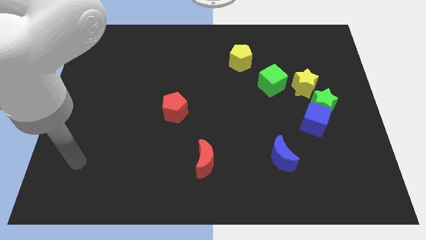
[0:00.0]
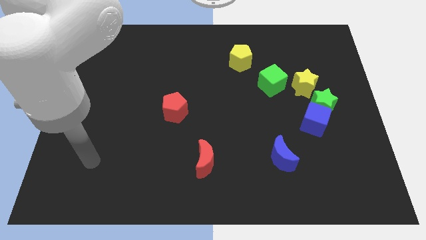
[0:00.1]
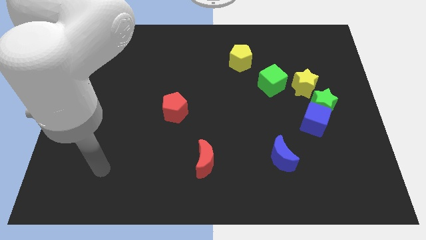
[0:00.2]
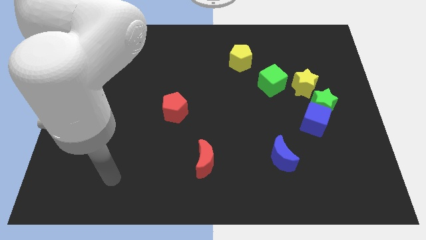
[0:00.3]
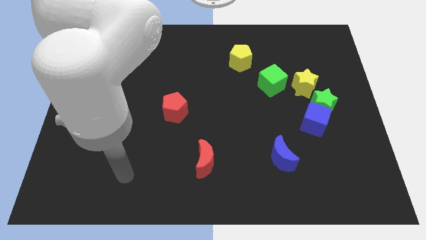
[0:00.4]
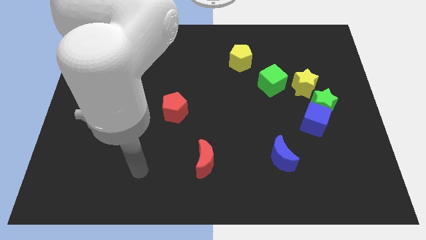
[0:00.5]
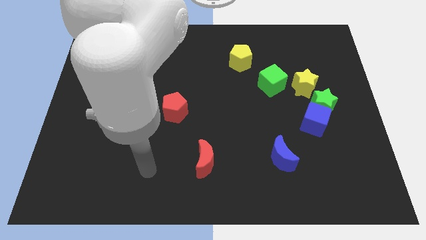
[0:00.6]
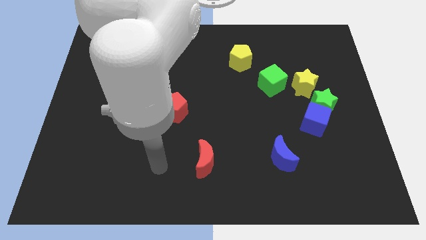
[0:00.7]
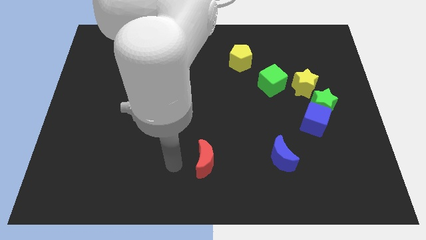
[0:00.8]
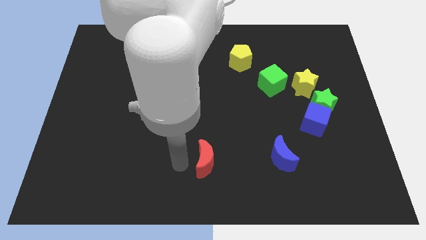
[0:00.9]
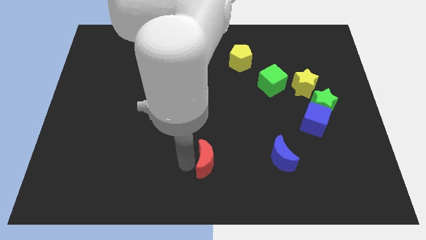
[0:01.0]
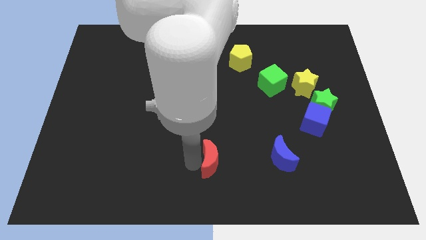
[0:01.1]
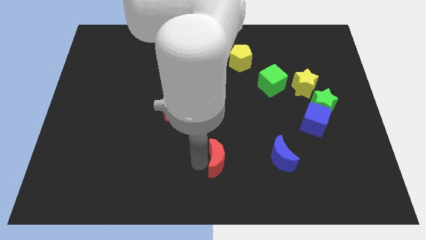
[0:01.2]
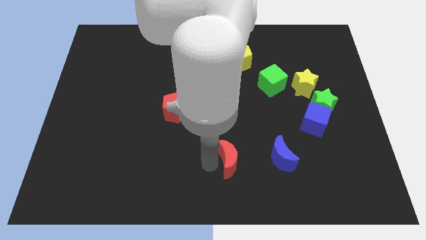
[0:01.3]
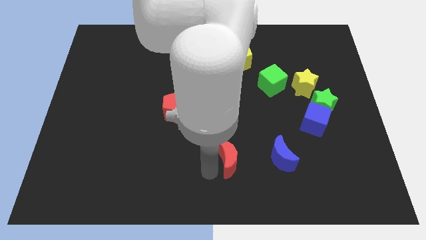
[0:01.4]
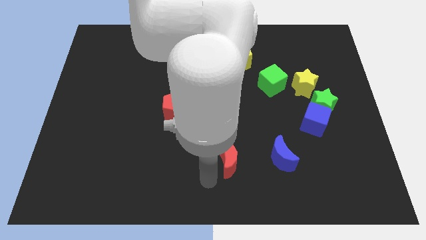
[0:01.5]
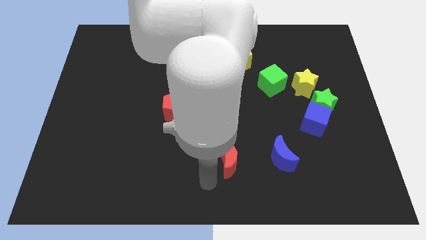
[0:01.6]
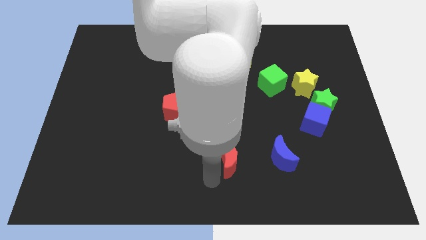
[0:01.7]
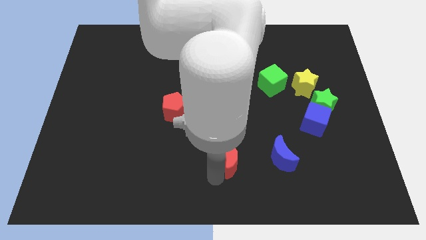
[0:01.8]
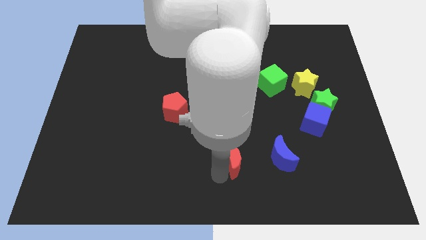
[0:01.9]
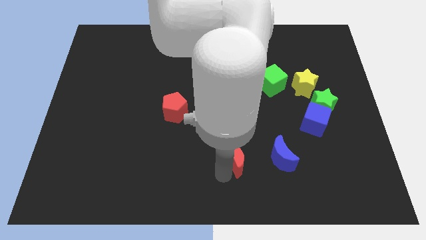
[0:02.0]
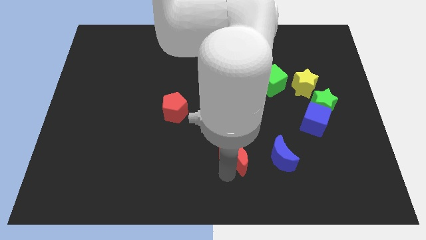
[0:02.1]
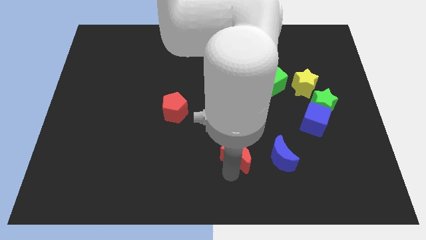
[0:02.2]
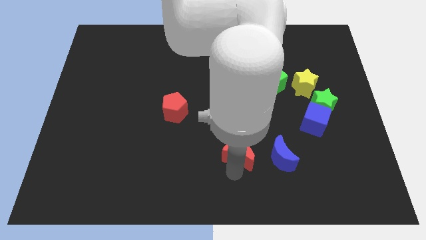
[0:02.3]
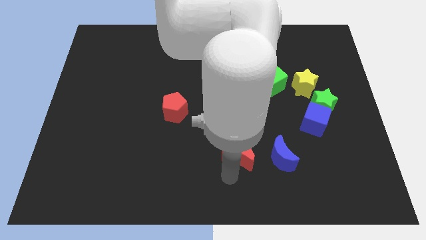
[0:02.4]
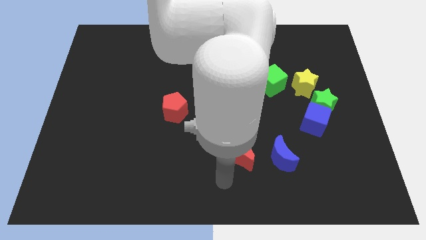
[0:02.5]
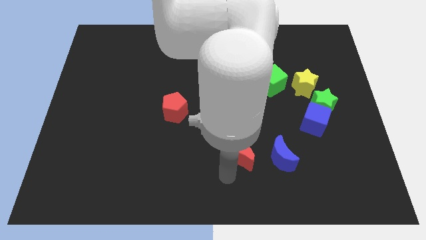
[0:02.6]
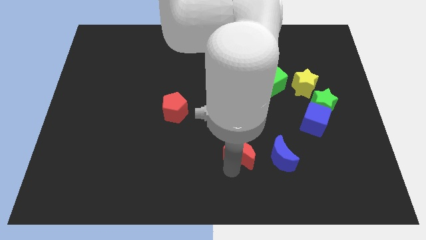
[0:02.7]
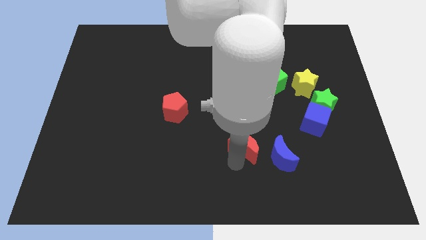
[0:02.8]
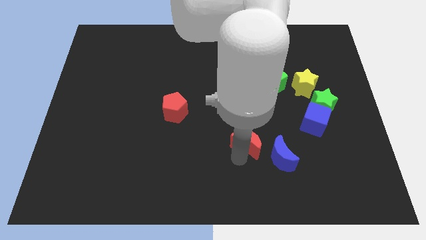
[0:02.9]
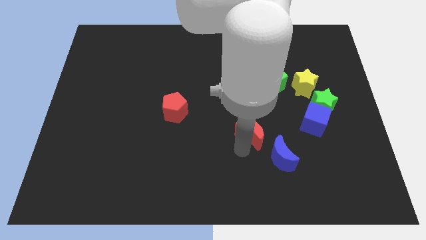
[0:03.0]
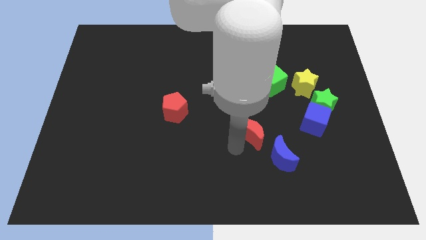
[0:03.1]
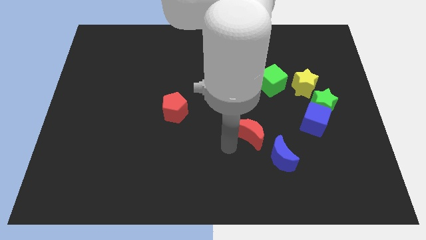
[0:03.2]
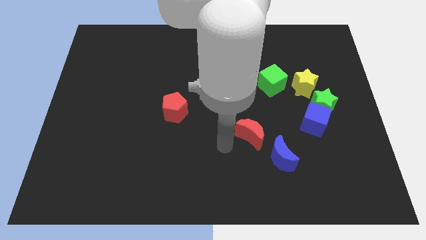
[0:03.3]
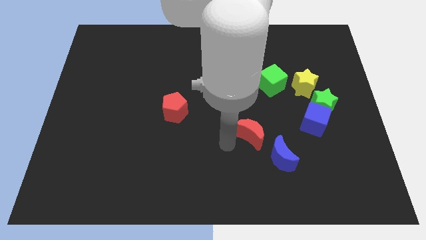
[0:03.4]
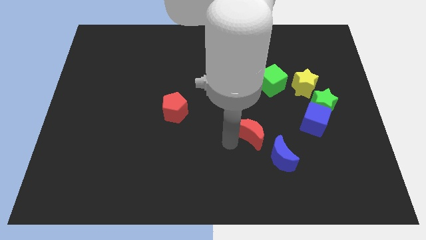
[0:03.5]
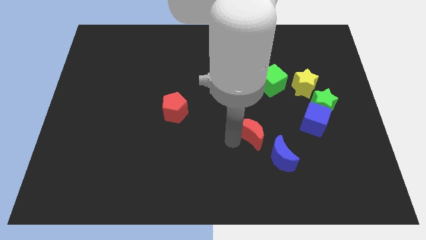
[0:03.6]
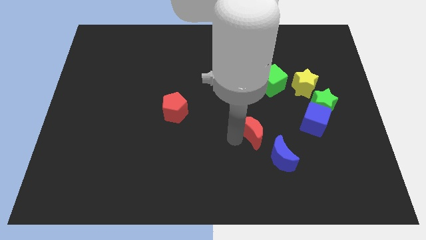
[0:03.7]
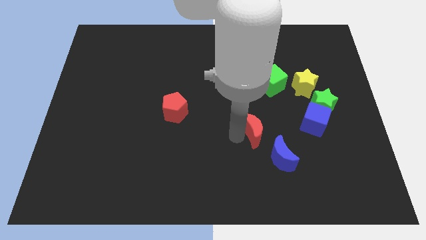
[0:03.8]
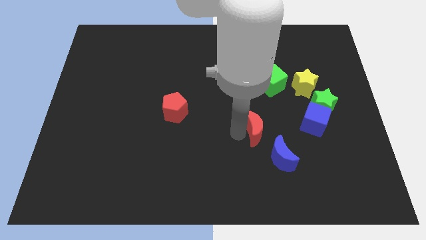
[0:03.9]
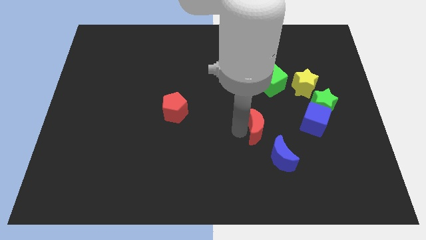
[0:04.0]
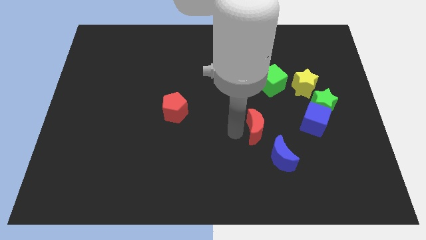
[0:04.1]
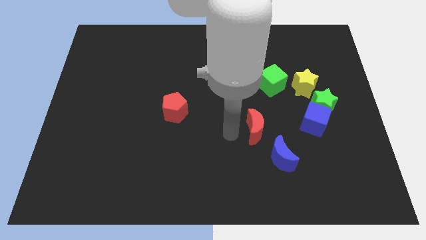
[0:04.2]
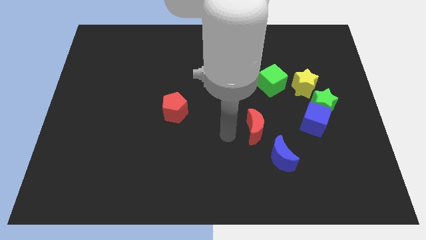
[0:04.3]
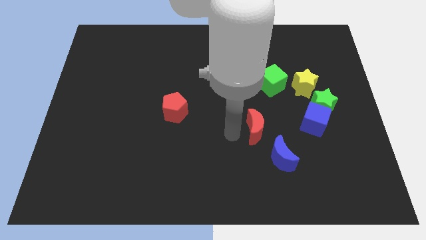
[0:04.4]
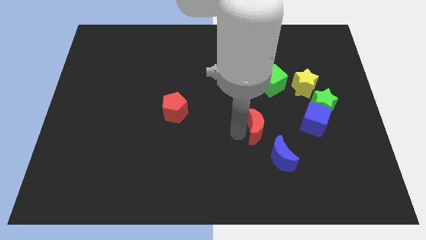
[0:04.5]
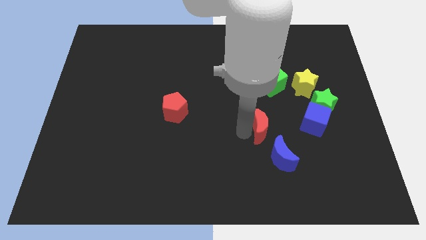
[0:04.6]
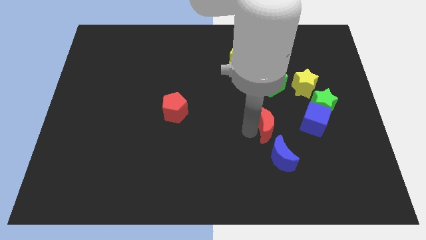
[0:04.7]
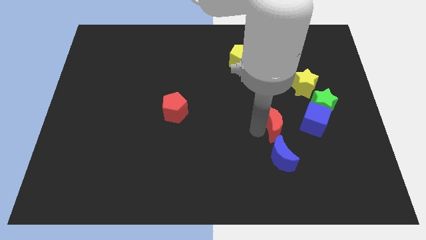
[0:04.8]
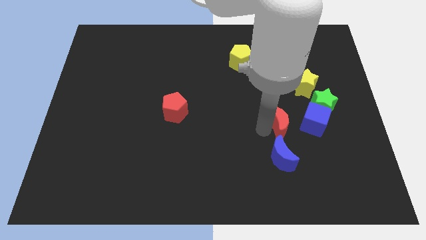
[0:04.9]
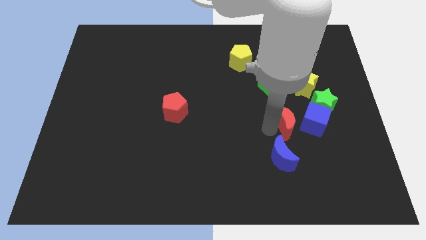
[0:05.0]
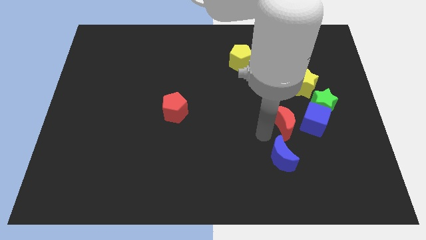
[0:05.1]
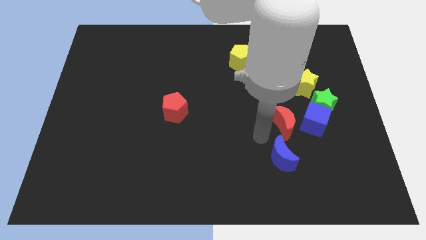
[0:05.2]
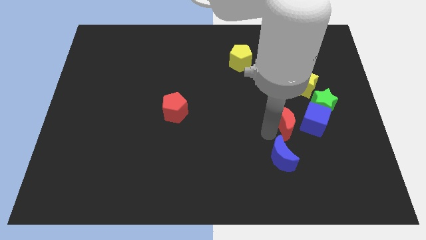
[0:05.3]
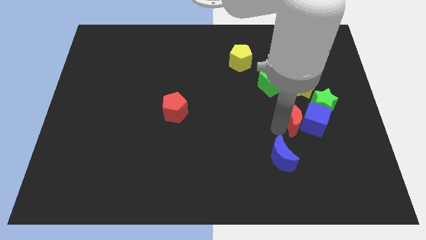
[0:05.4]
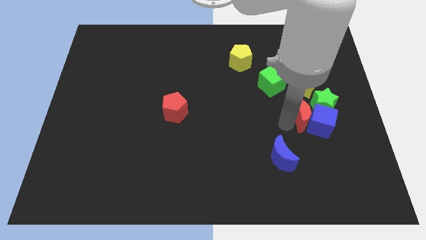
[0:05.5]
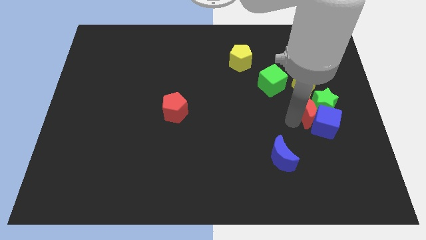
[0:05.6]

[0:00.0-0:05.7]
slide the red moon towards the green star

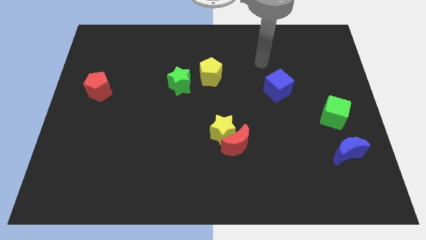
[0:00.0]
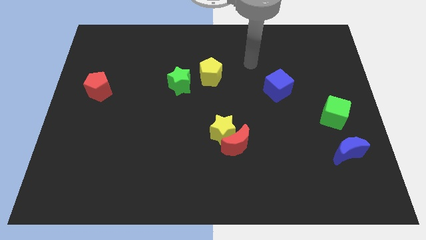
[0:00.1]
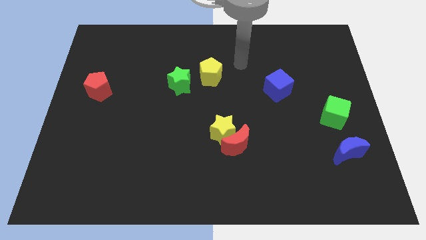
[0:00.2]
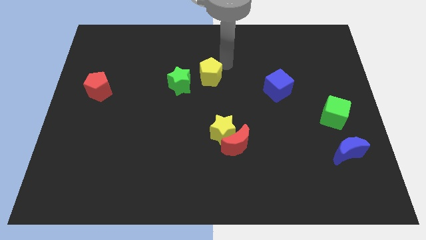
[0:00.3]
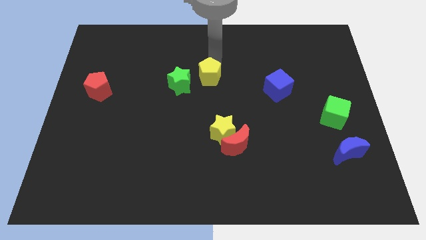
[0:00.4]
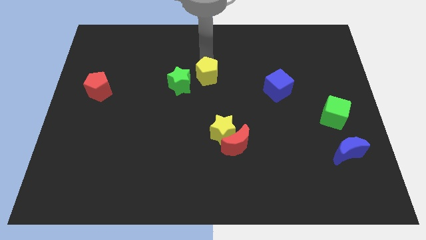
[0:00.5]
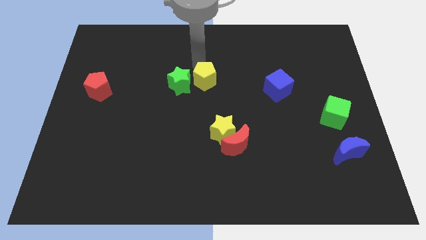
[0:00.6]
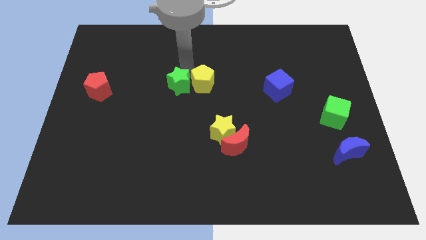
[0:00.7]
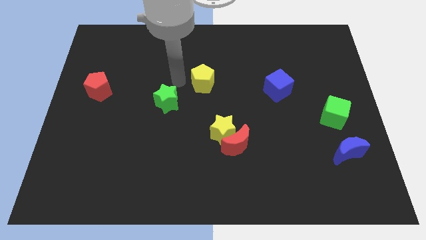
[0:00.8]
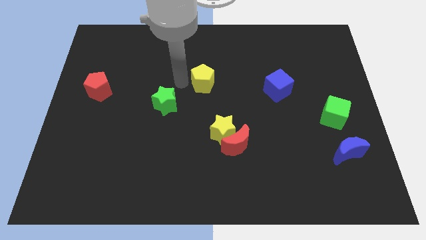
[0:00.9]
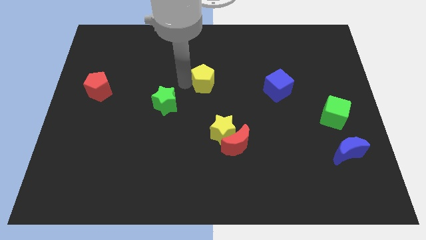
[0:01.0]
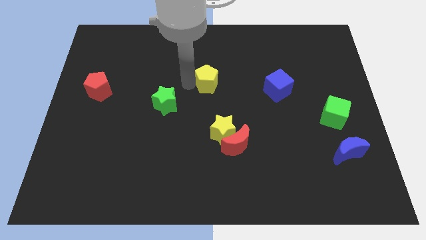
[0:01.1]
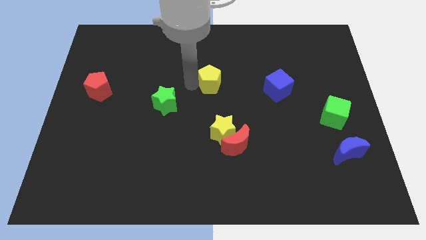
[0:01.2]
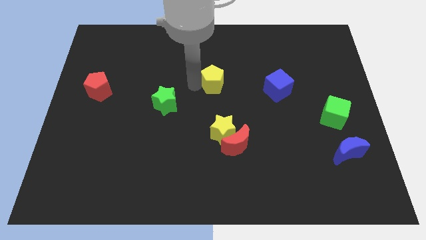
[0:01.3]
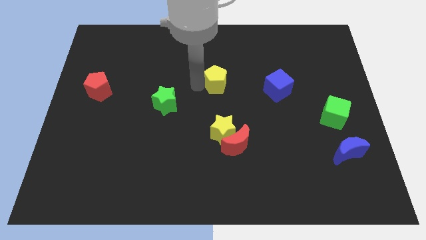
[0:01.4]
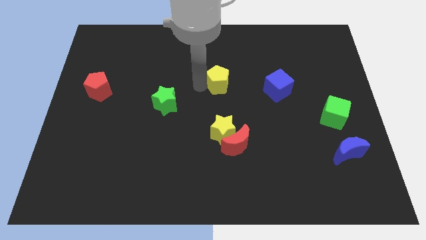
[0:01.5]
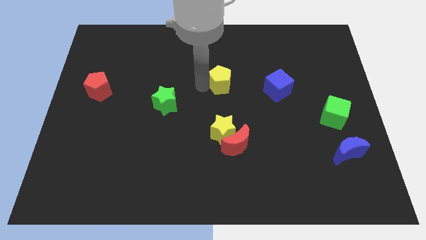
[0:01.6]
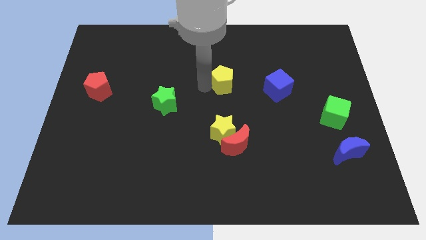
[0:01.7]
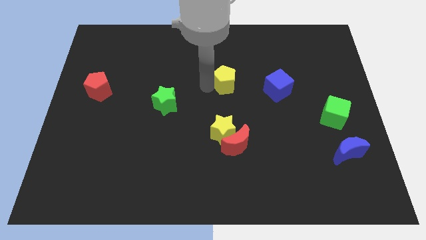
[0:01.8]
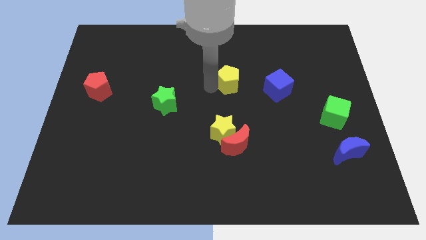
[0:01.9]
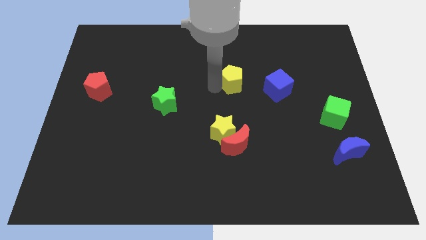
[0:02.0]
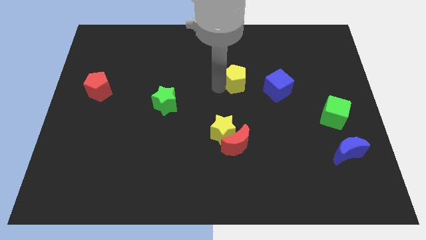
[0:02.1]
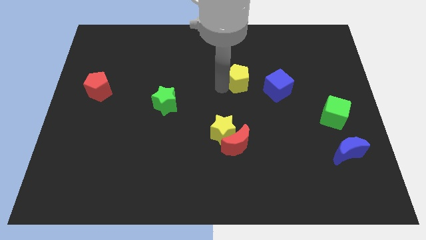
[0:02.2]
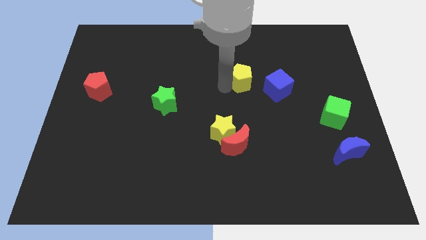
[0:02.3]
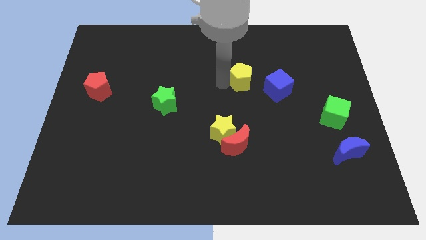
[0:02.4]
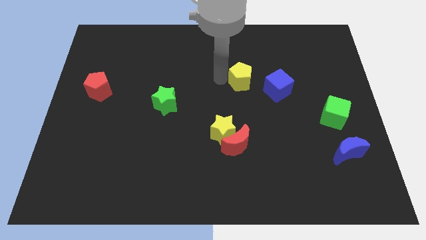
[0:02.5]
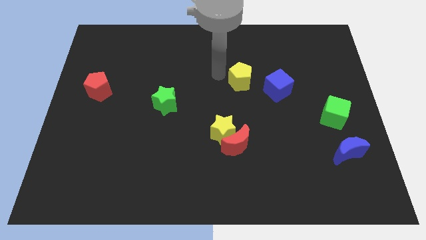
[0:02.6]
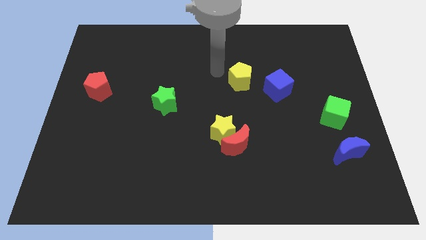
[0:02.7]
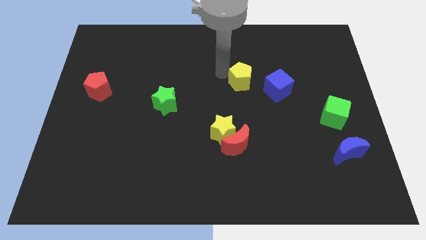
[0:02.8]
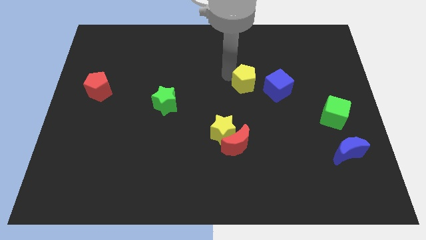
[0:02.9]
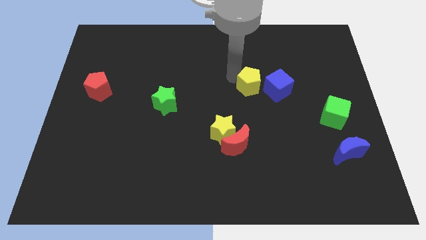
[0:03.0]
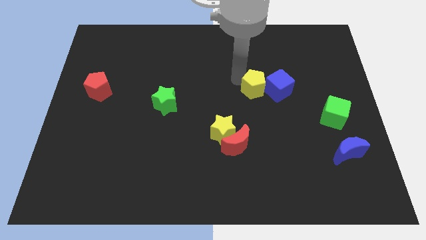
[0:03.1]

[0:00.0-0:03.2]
slide the yellow pentagon next to the blue cube
